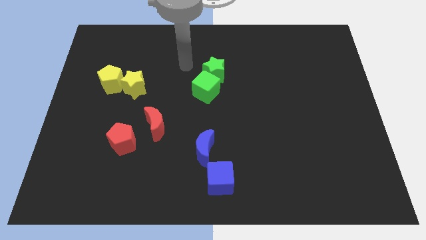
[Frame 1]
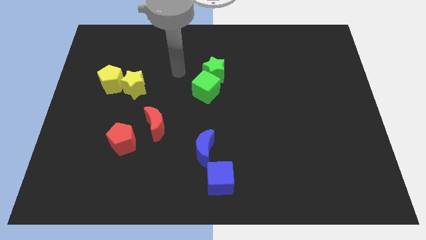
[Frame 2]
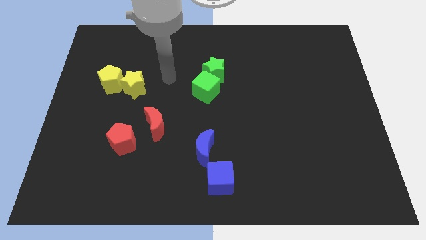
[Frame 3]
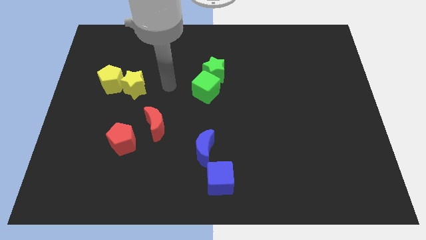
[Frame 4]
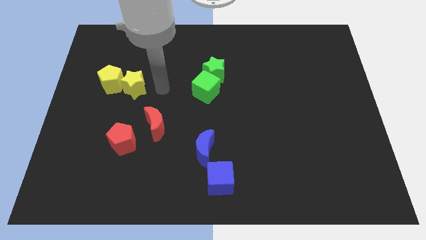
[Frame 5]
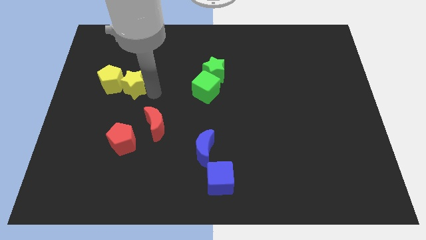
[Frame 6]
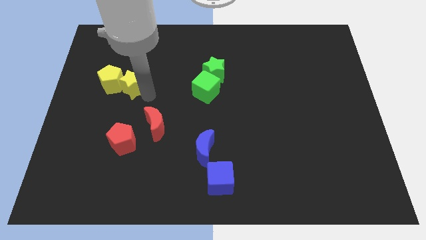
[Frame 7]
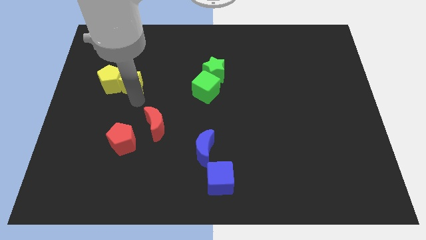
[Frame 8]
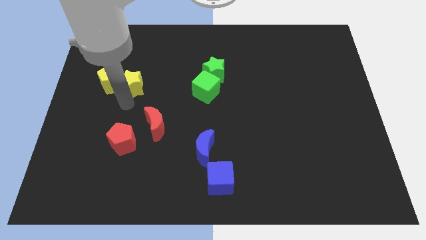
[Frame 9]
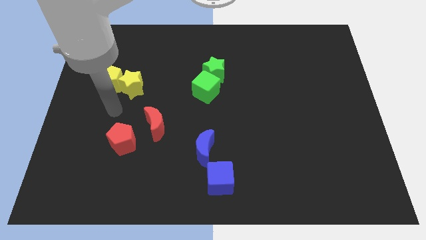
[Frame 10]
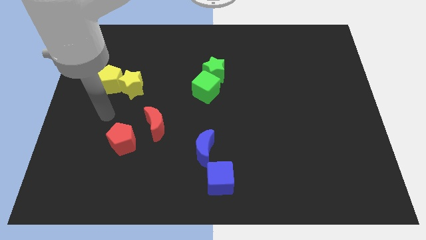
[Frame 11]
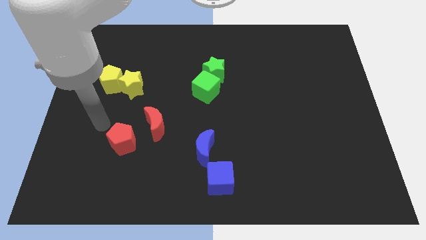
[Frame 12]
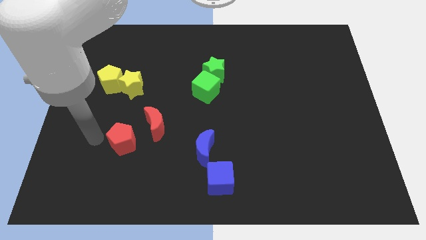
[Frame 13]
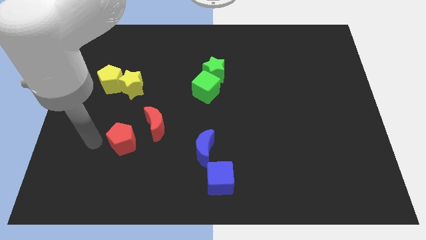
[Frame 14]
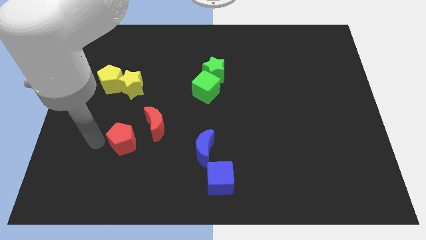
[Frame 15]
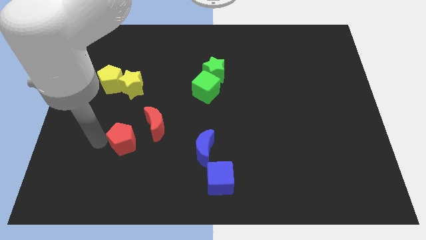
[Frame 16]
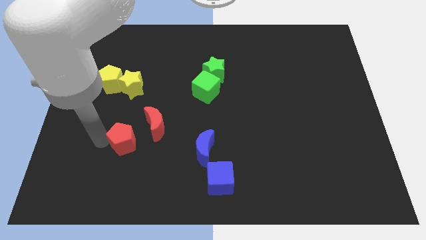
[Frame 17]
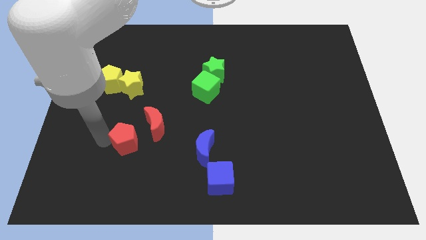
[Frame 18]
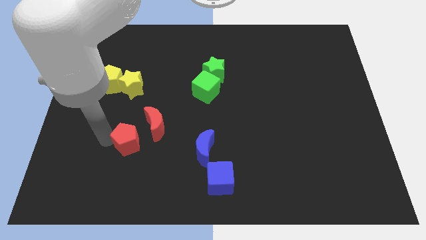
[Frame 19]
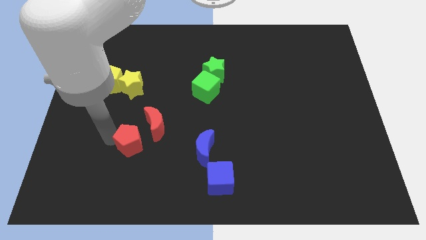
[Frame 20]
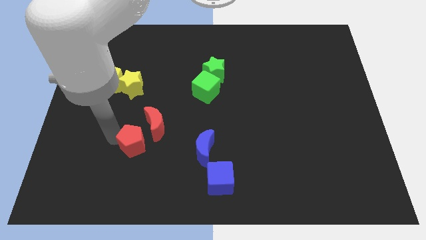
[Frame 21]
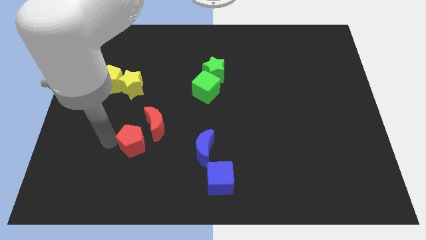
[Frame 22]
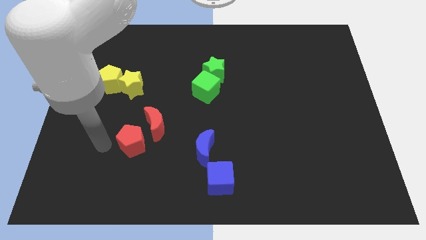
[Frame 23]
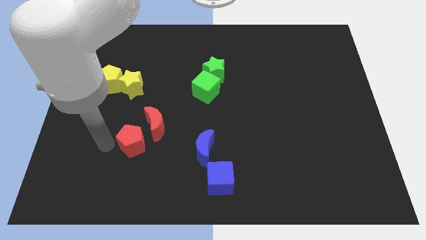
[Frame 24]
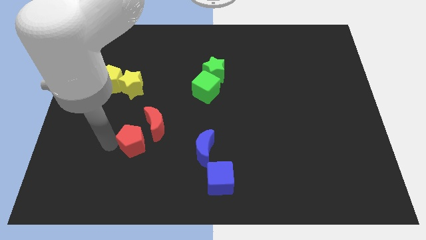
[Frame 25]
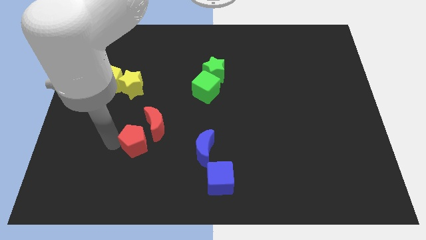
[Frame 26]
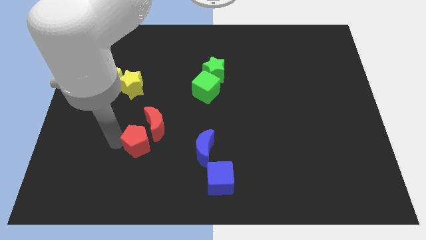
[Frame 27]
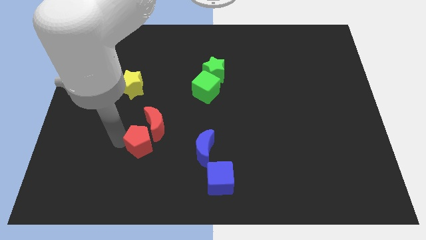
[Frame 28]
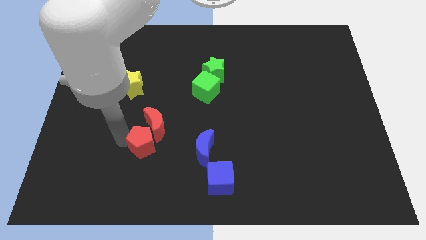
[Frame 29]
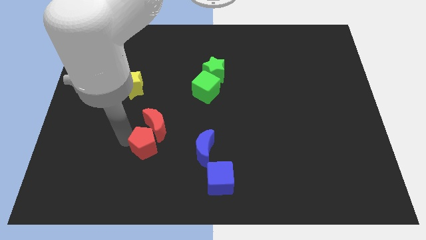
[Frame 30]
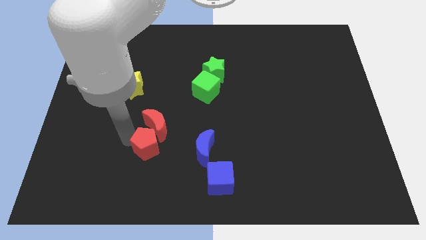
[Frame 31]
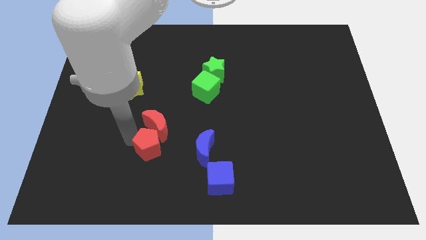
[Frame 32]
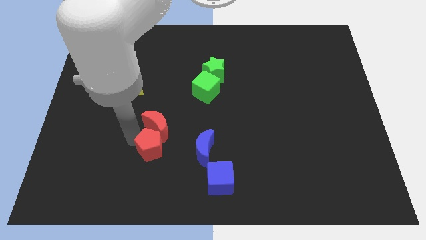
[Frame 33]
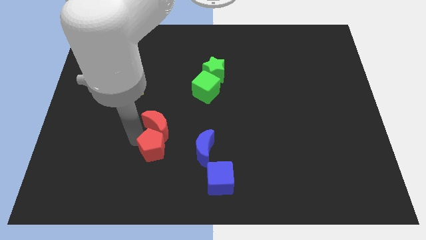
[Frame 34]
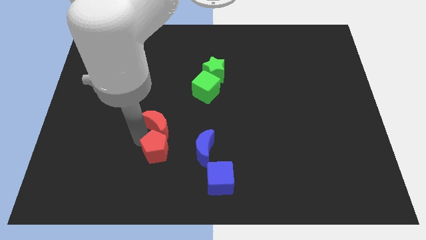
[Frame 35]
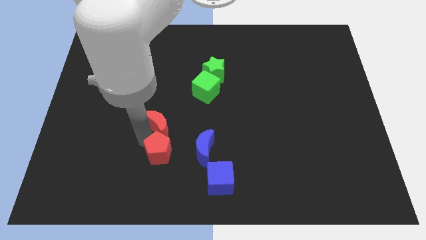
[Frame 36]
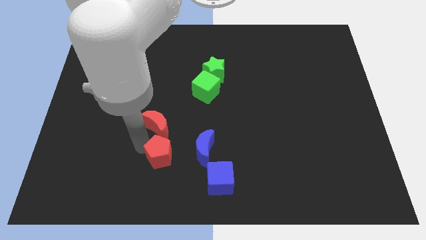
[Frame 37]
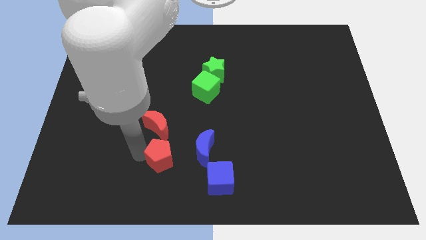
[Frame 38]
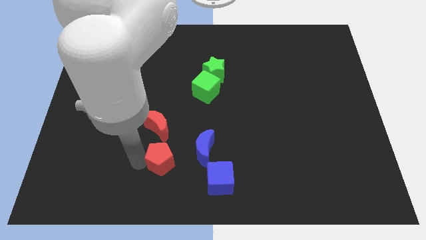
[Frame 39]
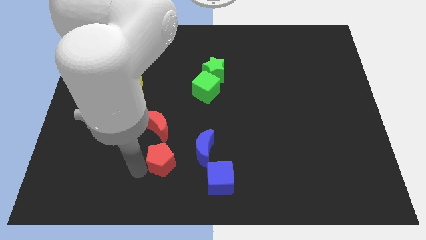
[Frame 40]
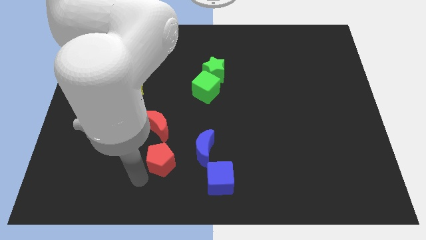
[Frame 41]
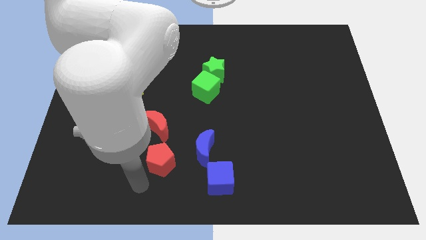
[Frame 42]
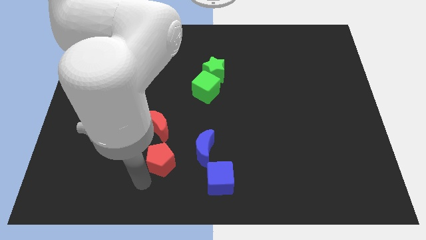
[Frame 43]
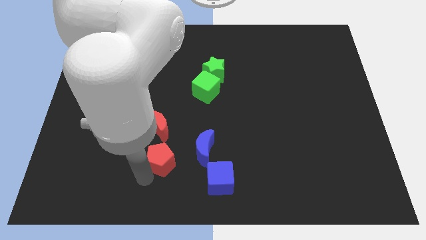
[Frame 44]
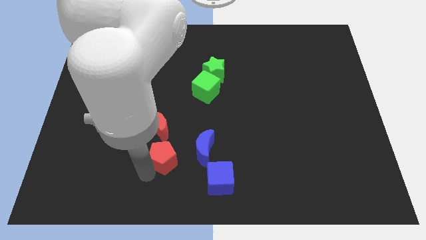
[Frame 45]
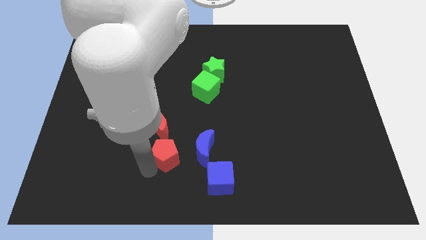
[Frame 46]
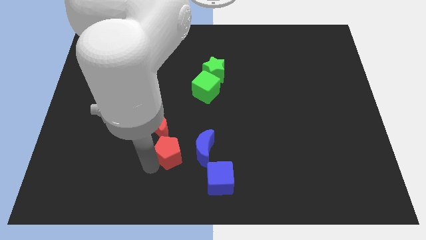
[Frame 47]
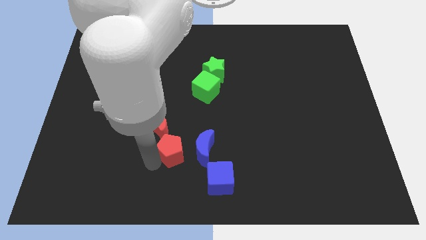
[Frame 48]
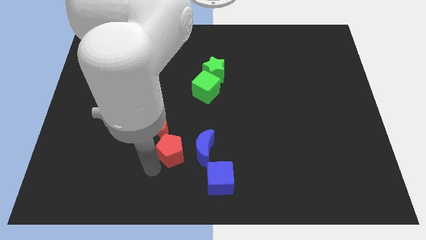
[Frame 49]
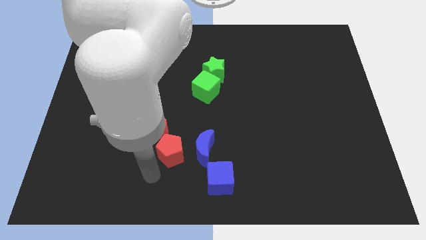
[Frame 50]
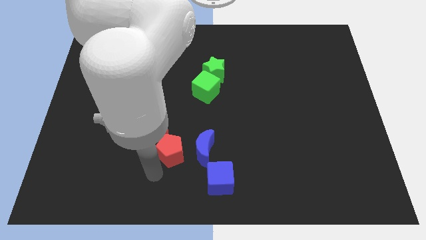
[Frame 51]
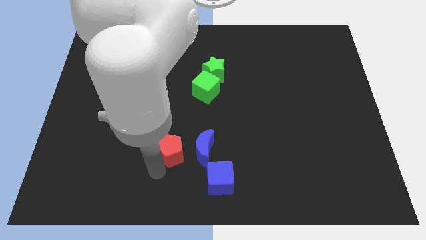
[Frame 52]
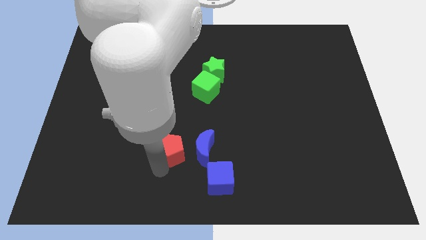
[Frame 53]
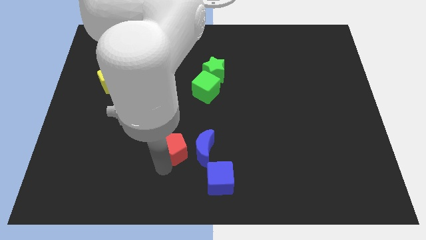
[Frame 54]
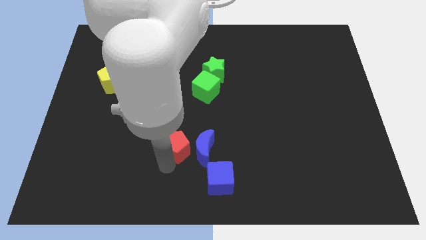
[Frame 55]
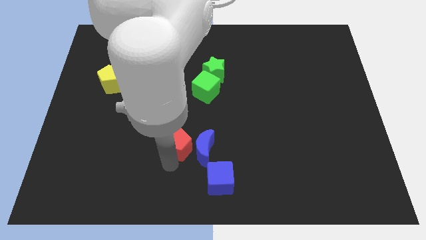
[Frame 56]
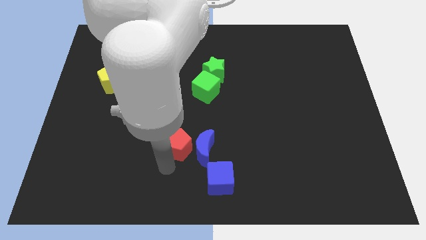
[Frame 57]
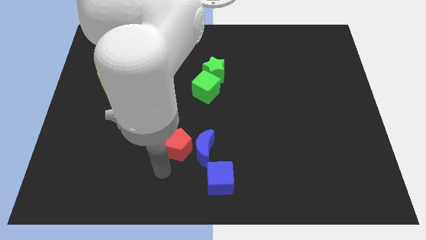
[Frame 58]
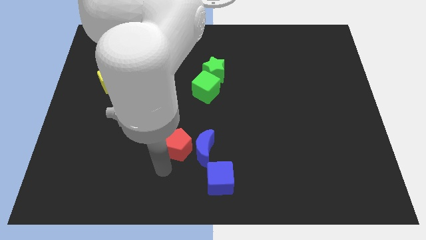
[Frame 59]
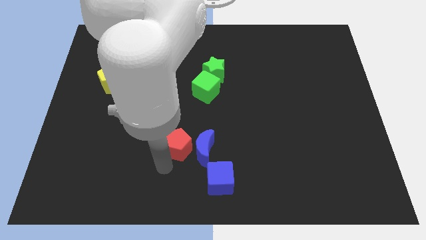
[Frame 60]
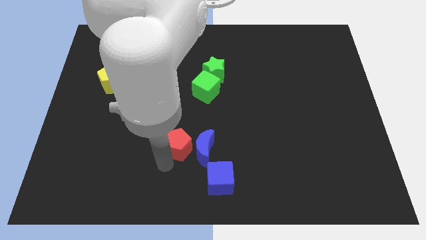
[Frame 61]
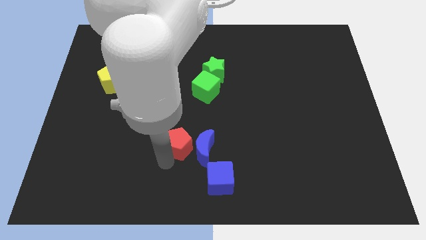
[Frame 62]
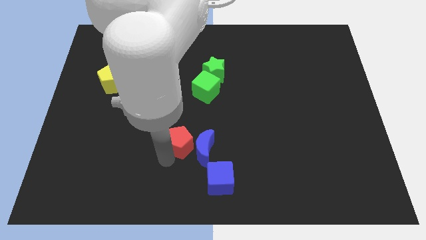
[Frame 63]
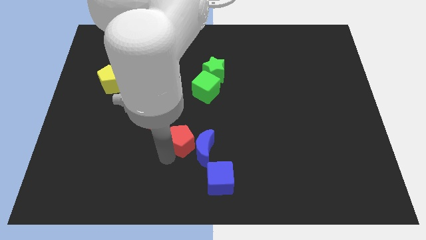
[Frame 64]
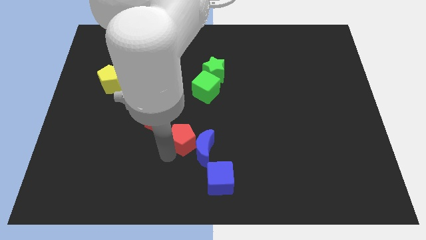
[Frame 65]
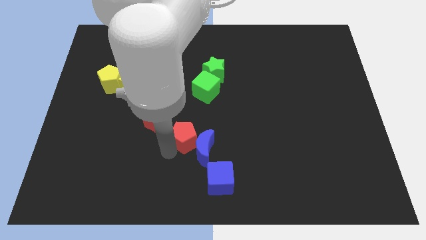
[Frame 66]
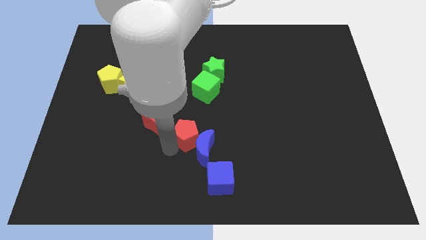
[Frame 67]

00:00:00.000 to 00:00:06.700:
put the red pentagon to the bottom of the green cube
